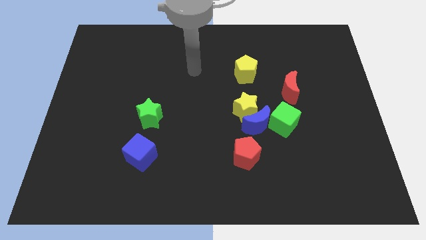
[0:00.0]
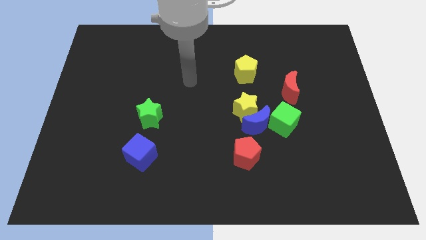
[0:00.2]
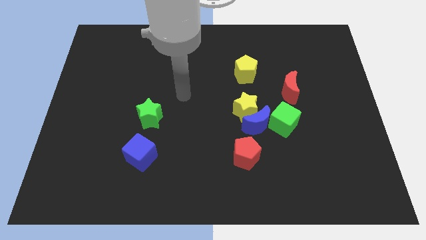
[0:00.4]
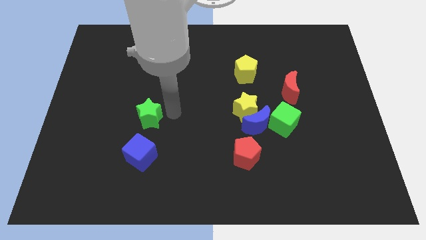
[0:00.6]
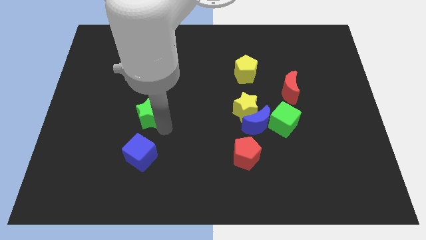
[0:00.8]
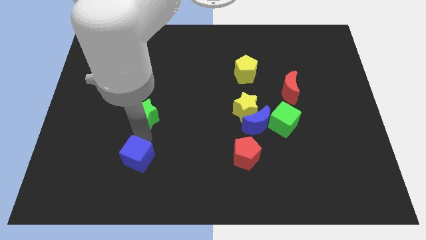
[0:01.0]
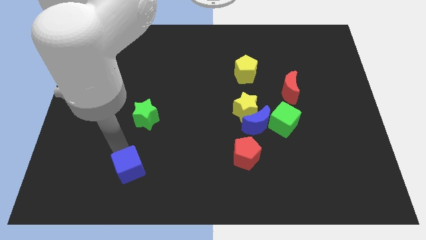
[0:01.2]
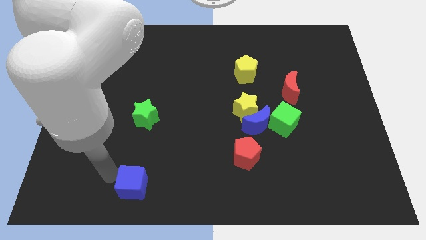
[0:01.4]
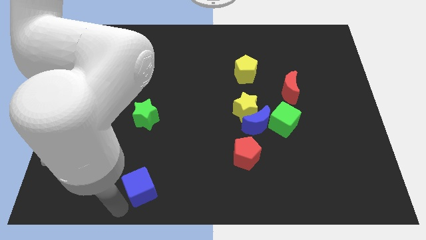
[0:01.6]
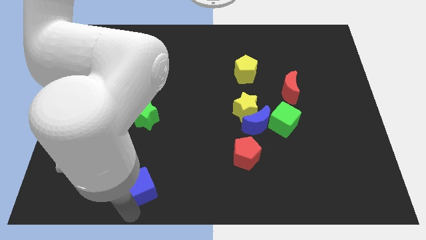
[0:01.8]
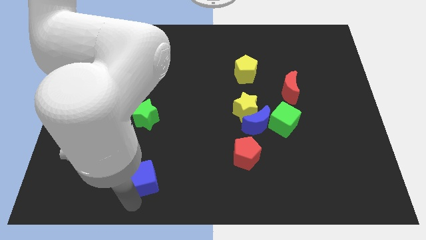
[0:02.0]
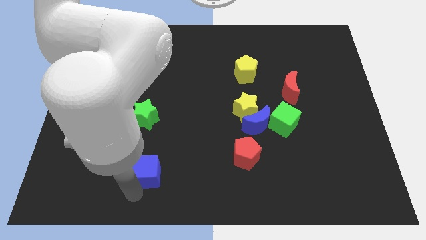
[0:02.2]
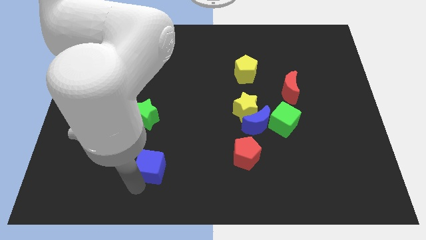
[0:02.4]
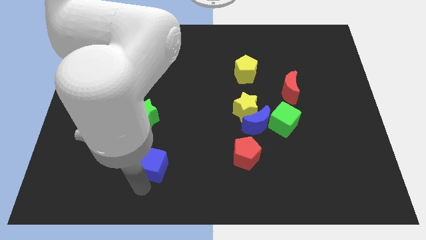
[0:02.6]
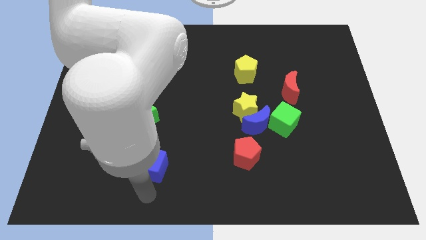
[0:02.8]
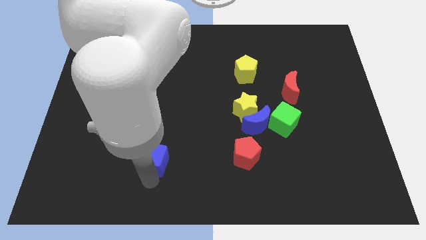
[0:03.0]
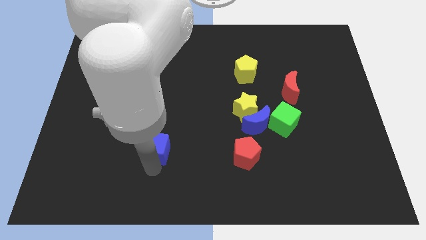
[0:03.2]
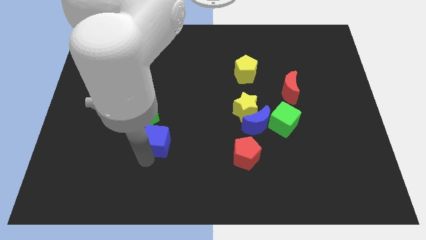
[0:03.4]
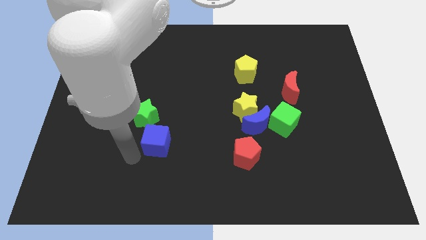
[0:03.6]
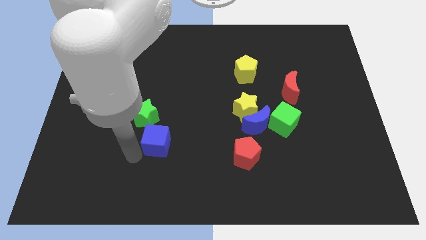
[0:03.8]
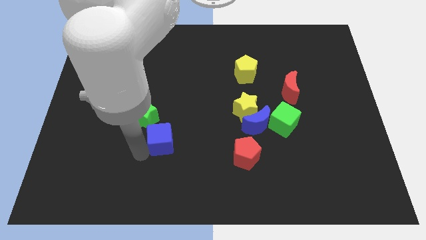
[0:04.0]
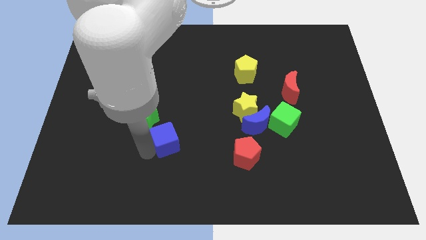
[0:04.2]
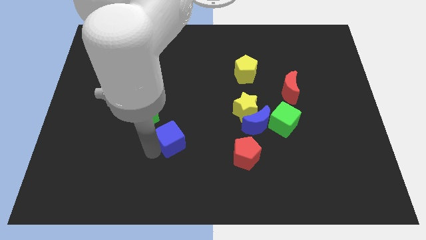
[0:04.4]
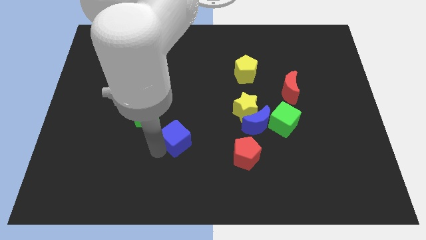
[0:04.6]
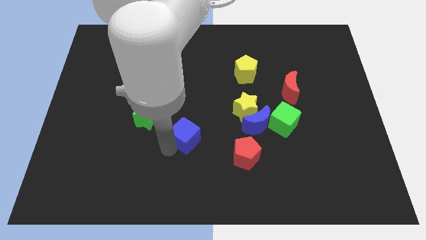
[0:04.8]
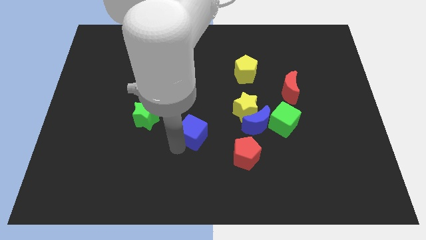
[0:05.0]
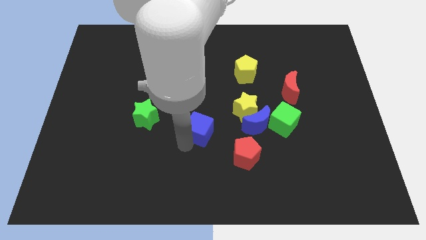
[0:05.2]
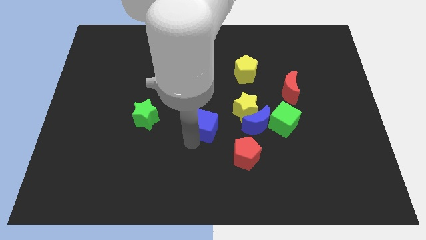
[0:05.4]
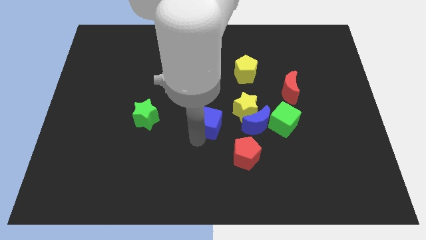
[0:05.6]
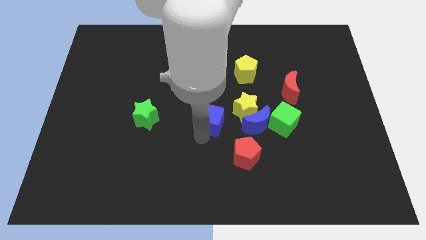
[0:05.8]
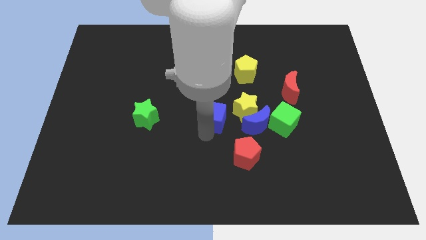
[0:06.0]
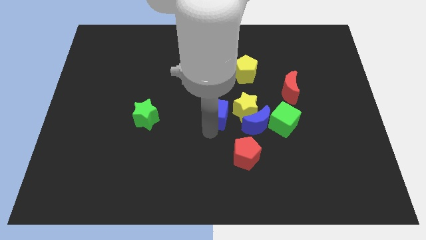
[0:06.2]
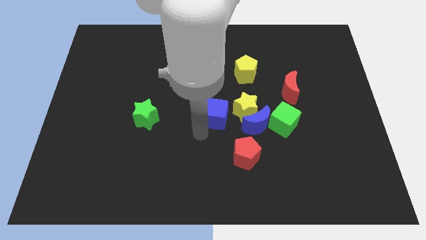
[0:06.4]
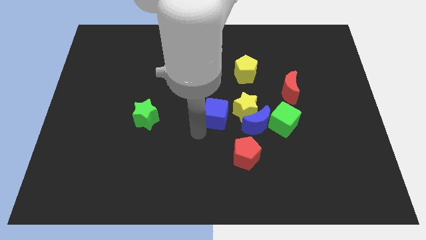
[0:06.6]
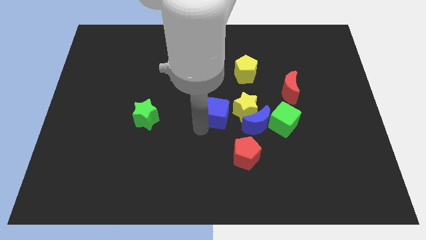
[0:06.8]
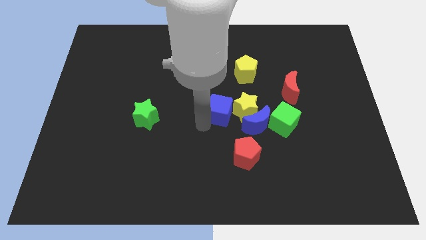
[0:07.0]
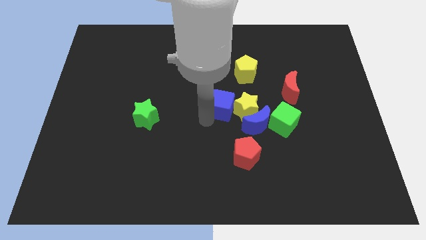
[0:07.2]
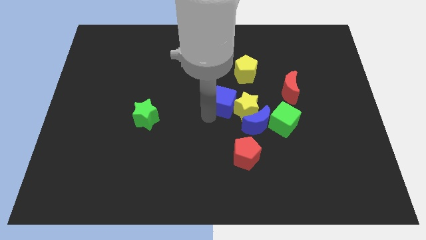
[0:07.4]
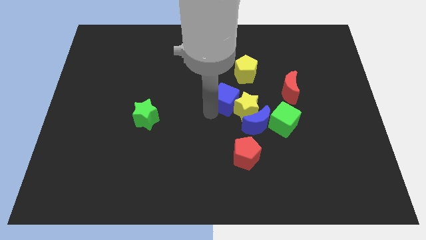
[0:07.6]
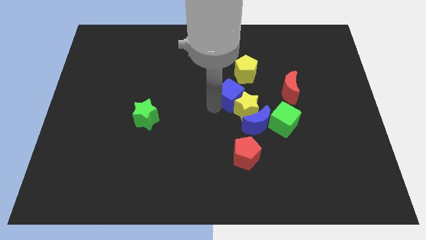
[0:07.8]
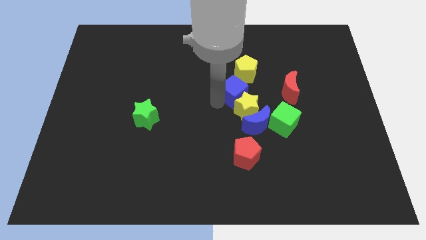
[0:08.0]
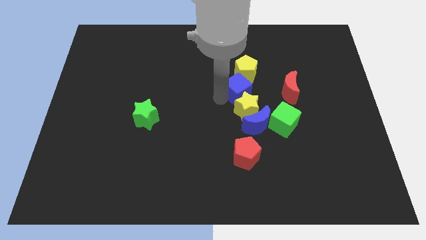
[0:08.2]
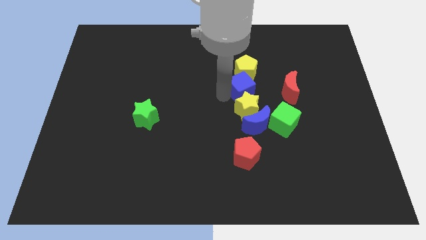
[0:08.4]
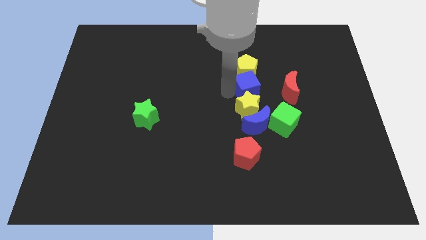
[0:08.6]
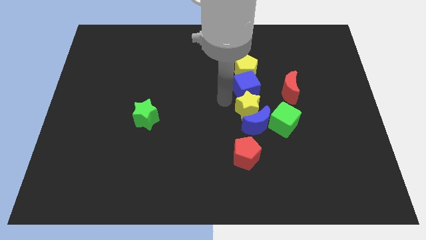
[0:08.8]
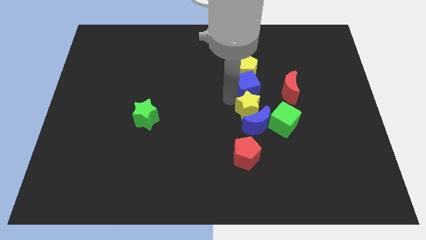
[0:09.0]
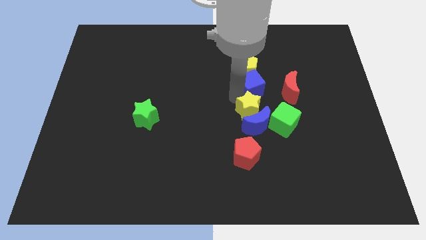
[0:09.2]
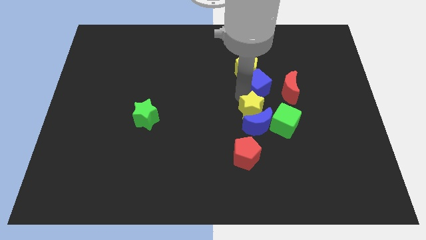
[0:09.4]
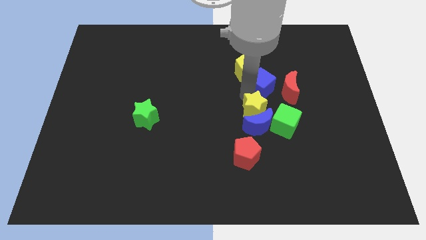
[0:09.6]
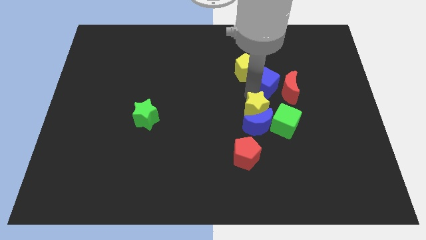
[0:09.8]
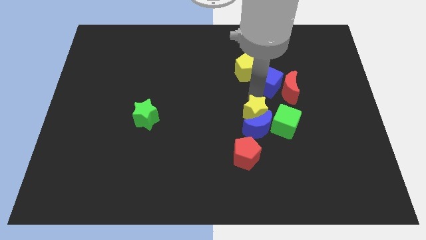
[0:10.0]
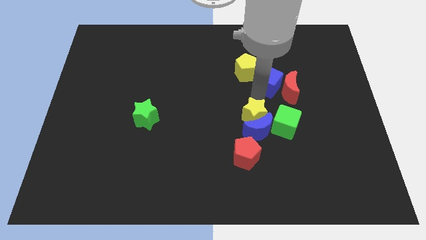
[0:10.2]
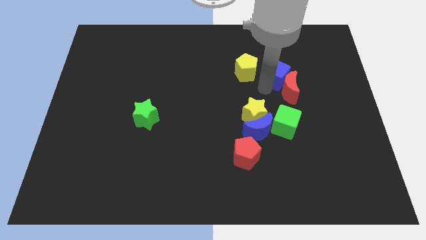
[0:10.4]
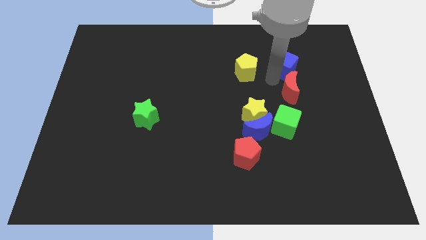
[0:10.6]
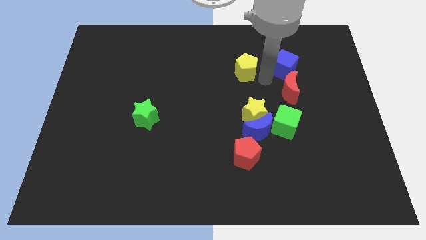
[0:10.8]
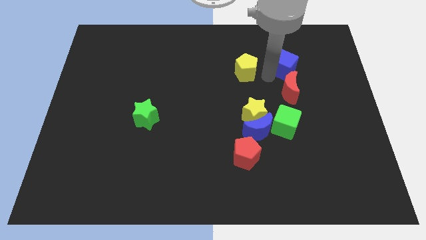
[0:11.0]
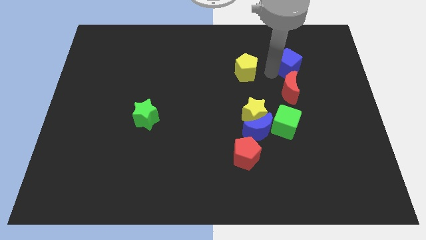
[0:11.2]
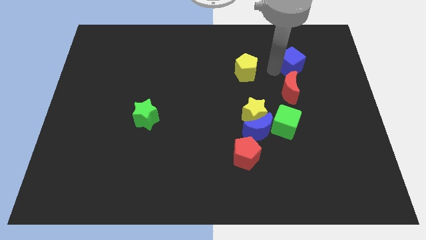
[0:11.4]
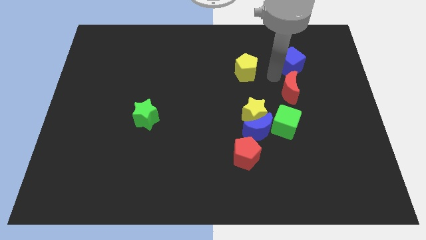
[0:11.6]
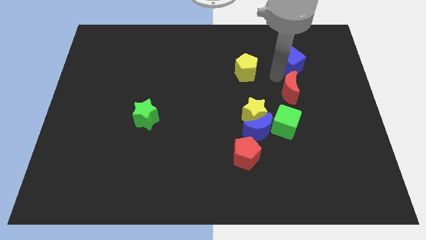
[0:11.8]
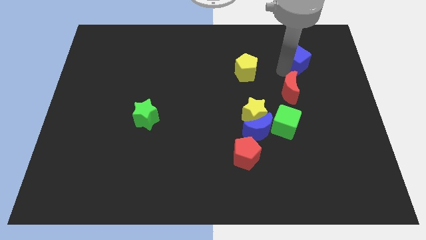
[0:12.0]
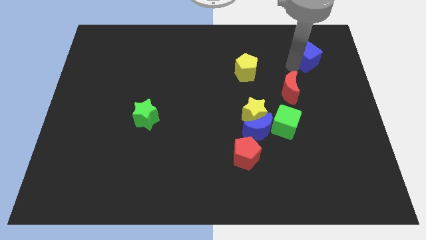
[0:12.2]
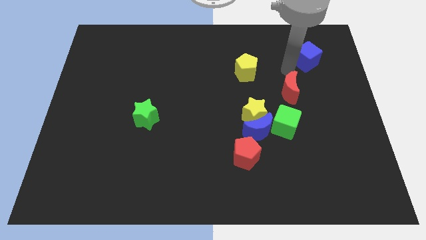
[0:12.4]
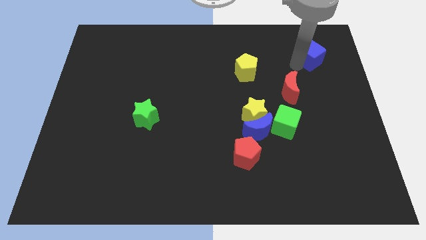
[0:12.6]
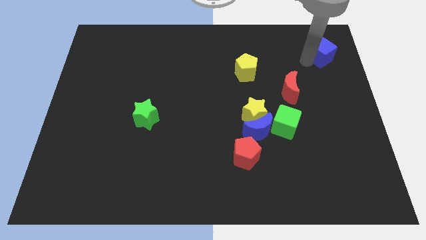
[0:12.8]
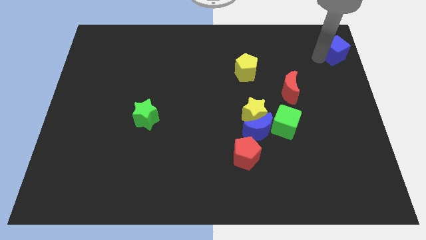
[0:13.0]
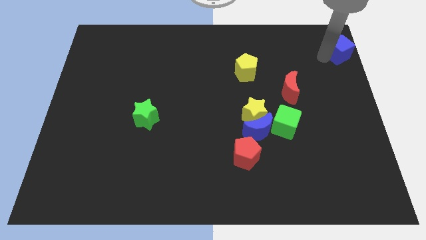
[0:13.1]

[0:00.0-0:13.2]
push the blue cube to the upper right corner
